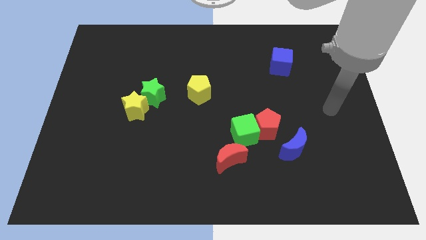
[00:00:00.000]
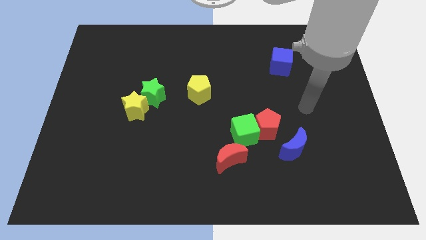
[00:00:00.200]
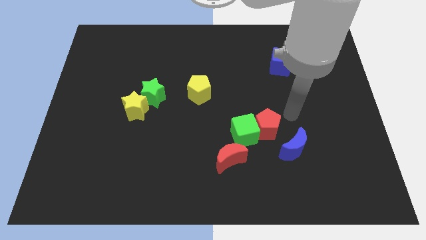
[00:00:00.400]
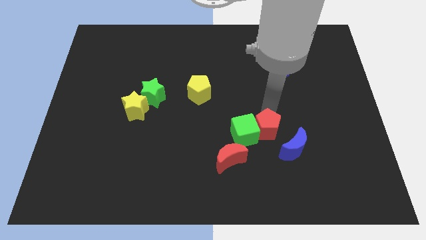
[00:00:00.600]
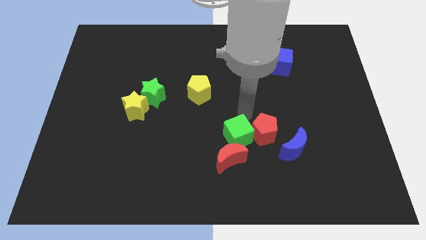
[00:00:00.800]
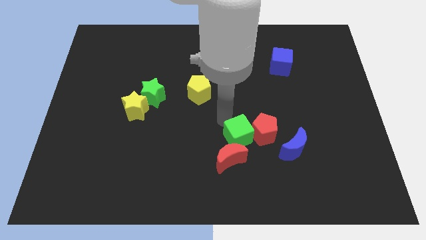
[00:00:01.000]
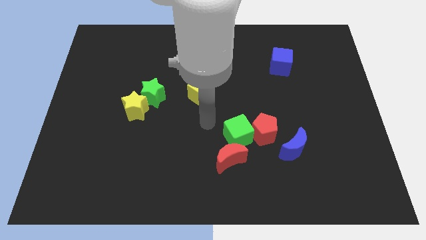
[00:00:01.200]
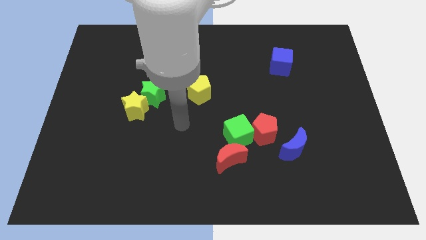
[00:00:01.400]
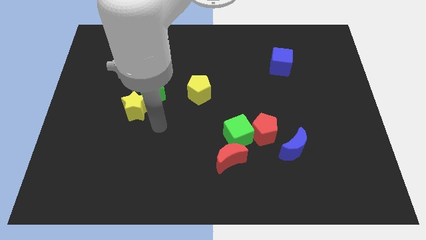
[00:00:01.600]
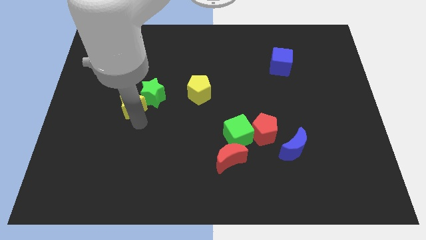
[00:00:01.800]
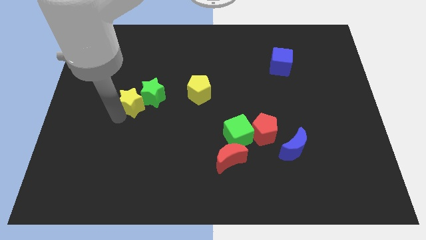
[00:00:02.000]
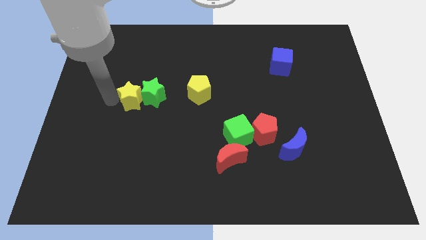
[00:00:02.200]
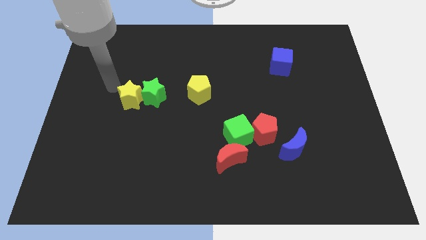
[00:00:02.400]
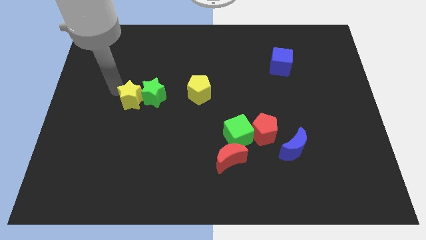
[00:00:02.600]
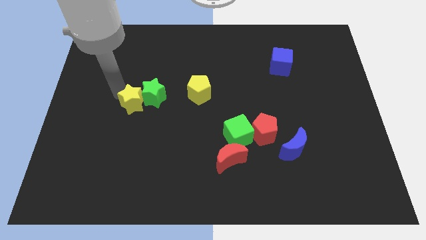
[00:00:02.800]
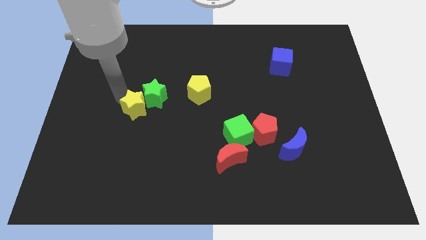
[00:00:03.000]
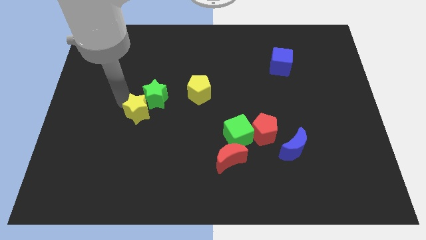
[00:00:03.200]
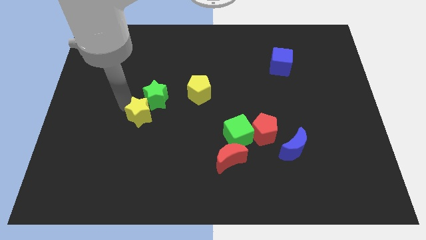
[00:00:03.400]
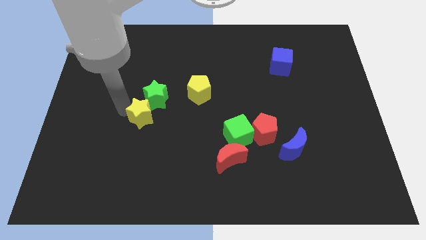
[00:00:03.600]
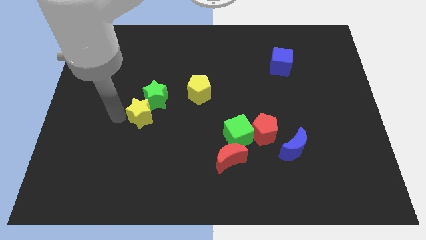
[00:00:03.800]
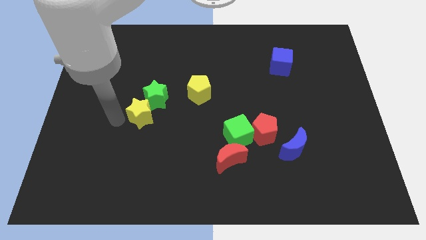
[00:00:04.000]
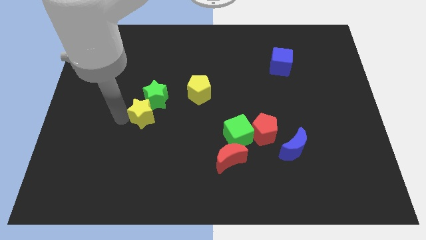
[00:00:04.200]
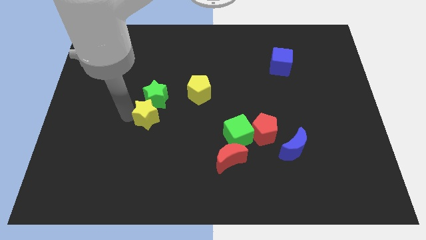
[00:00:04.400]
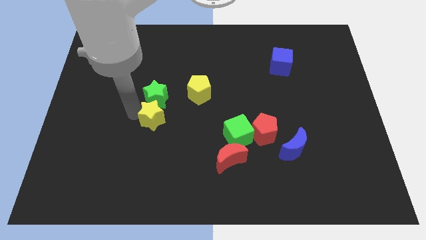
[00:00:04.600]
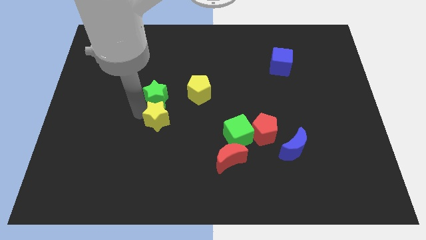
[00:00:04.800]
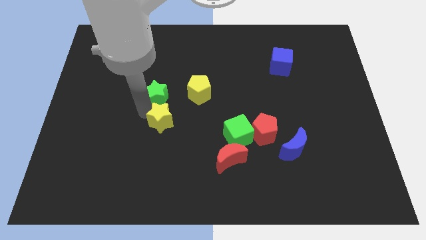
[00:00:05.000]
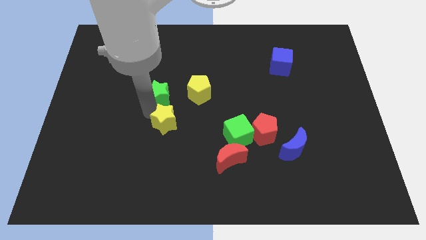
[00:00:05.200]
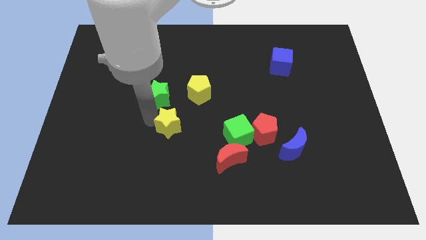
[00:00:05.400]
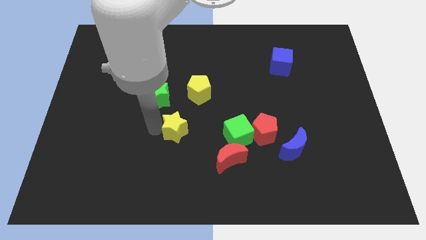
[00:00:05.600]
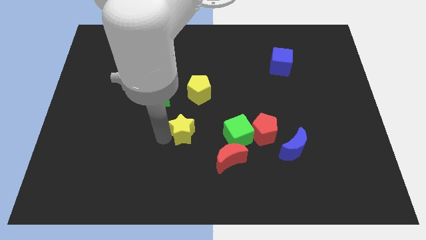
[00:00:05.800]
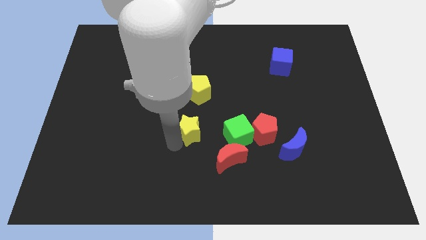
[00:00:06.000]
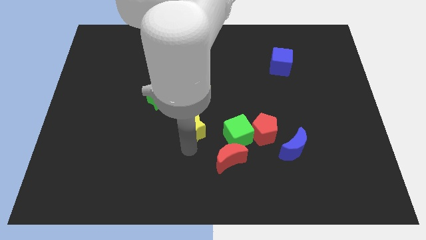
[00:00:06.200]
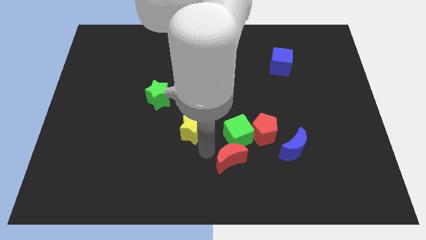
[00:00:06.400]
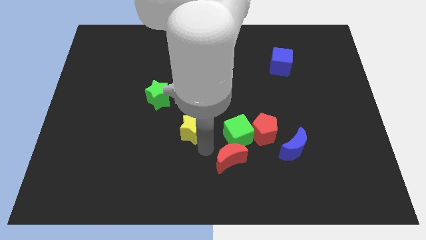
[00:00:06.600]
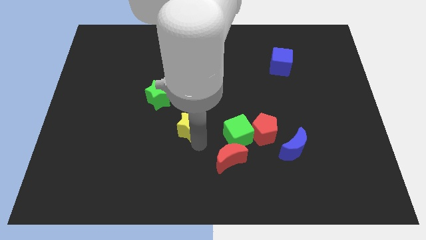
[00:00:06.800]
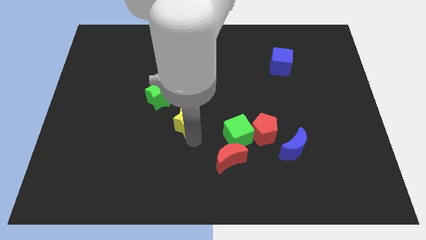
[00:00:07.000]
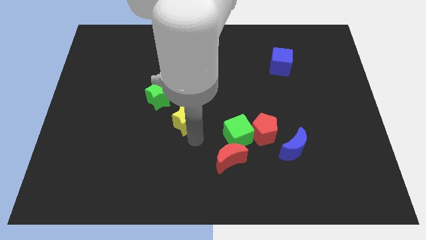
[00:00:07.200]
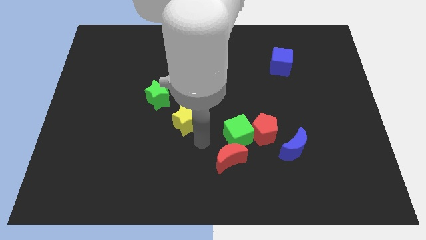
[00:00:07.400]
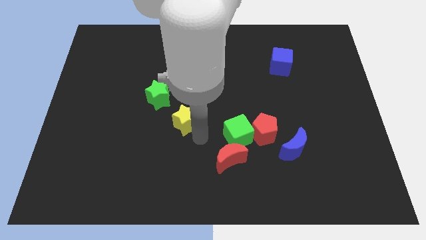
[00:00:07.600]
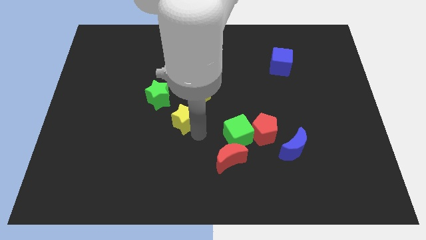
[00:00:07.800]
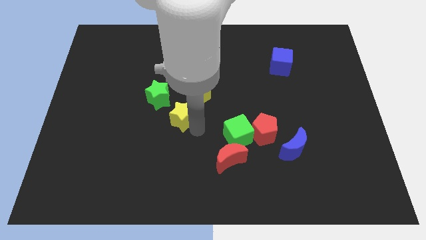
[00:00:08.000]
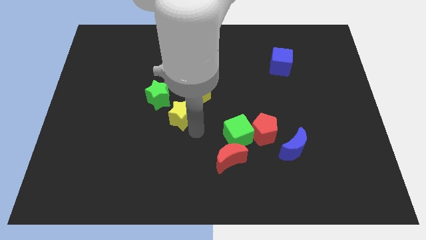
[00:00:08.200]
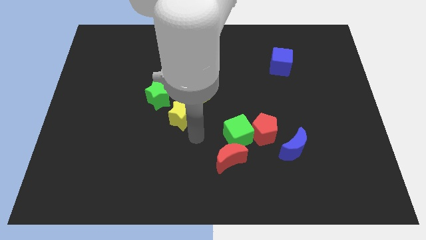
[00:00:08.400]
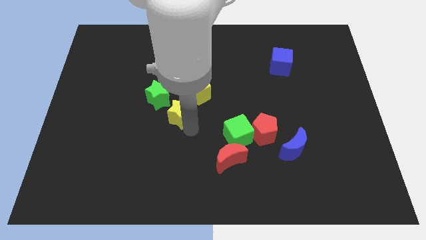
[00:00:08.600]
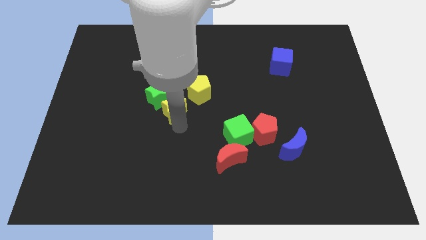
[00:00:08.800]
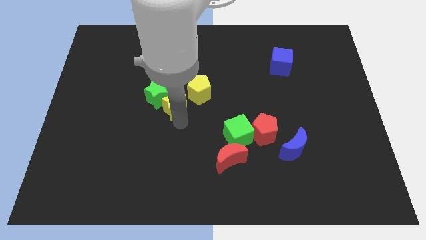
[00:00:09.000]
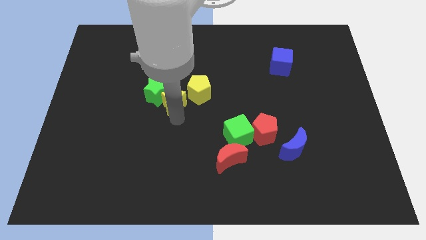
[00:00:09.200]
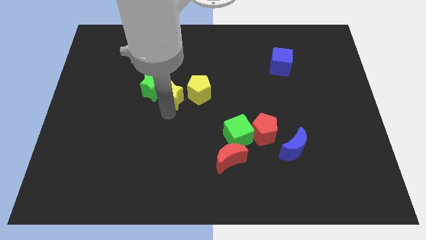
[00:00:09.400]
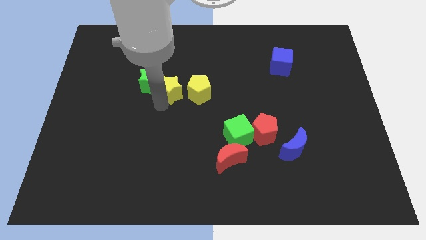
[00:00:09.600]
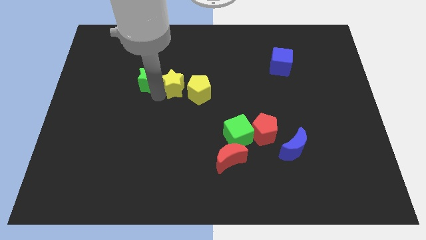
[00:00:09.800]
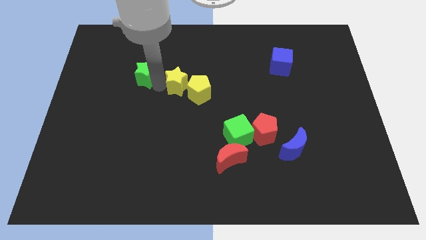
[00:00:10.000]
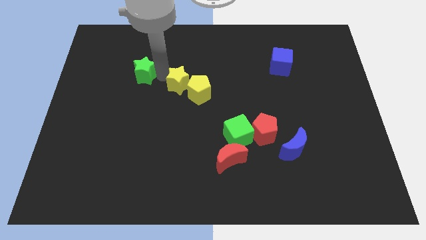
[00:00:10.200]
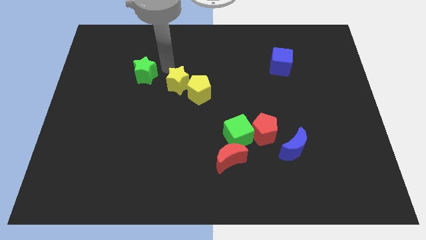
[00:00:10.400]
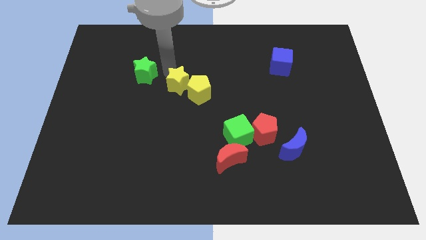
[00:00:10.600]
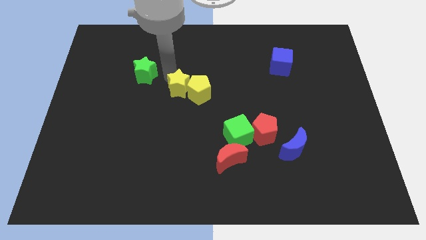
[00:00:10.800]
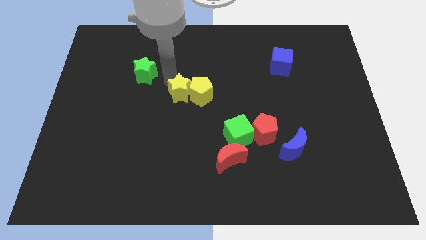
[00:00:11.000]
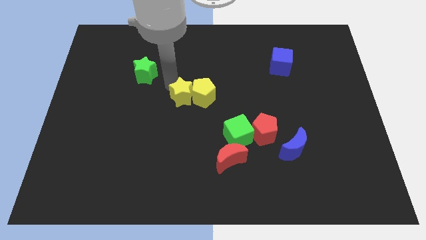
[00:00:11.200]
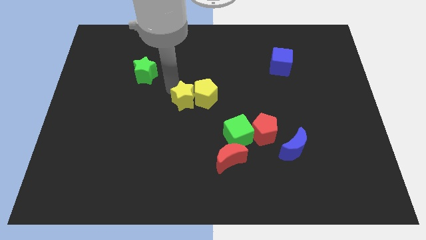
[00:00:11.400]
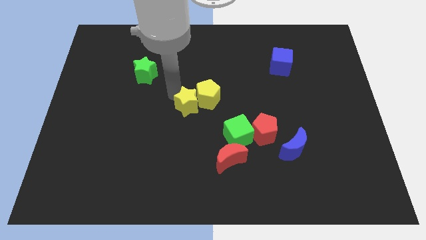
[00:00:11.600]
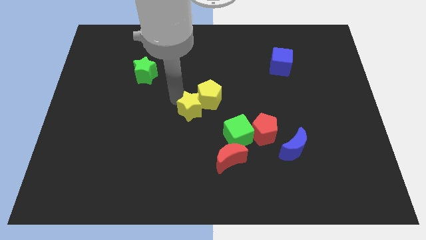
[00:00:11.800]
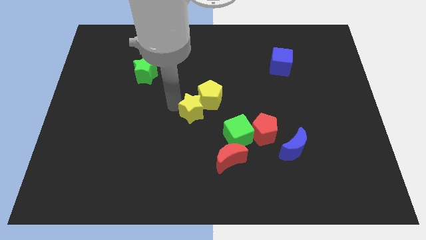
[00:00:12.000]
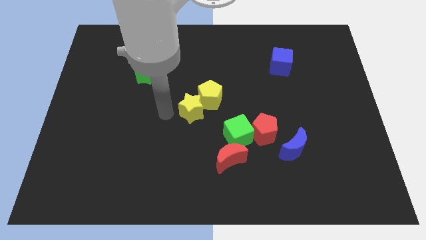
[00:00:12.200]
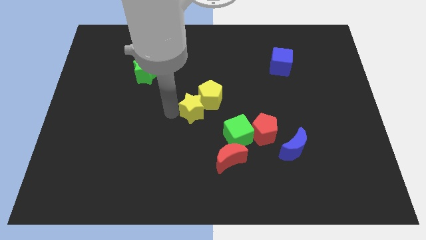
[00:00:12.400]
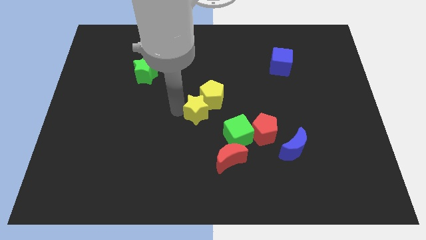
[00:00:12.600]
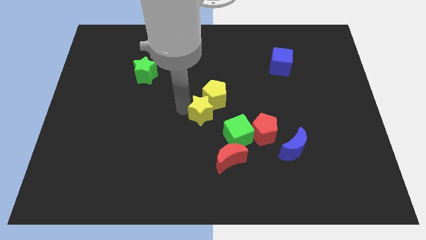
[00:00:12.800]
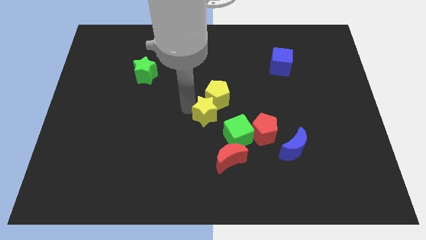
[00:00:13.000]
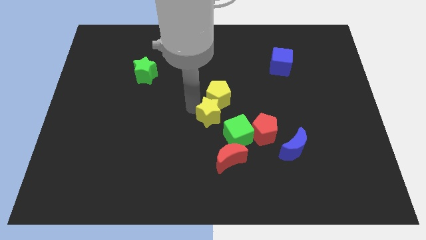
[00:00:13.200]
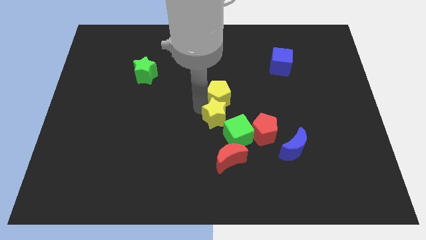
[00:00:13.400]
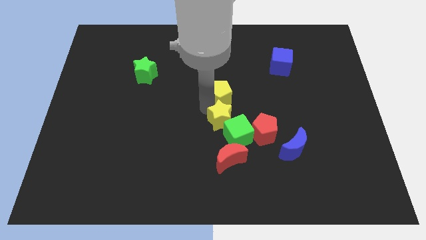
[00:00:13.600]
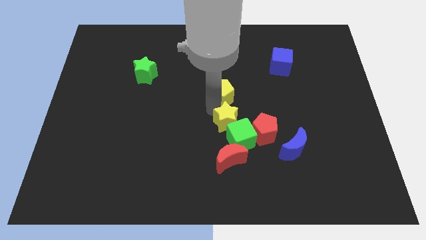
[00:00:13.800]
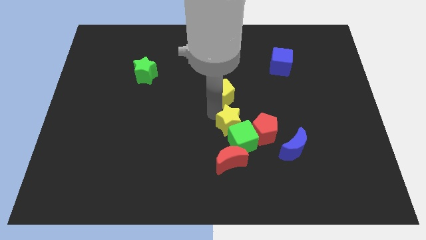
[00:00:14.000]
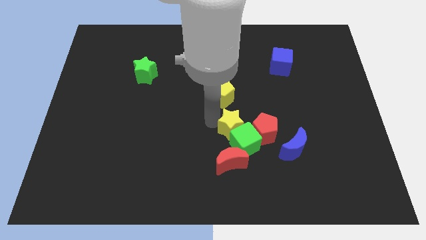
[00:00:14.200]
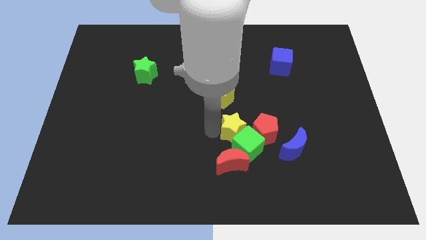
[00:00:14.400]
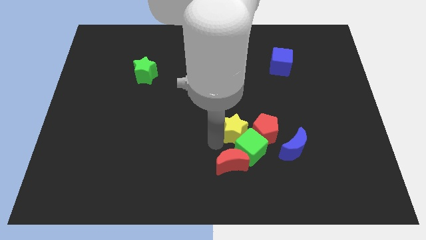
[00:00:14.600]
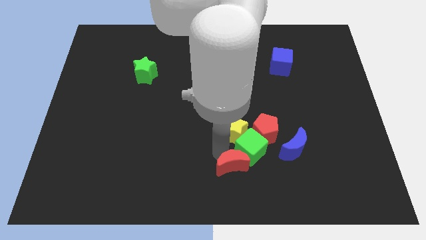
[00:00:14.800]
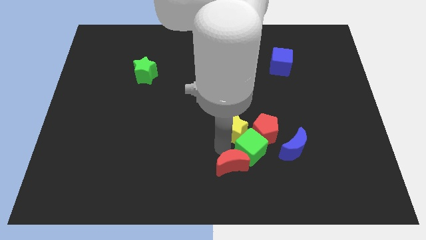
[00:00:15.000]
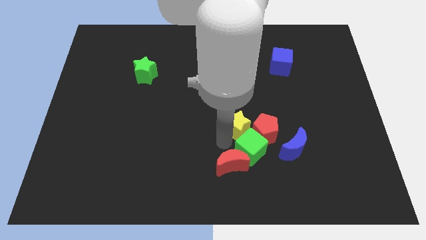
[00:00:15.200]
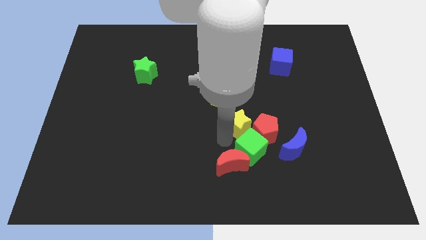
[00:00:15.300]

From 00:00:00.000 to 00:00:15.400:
move the yellow star close to the red pentagon
